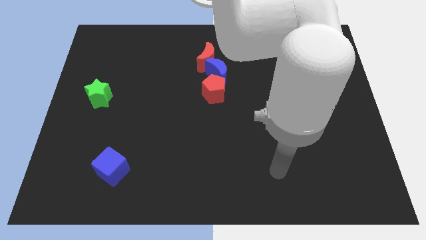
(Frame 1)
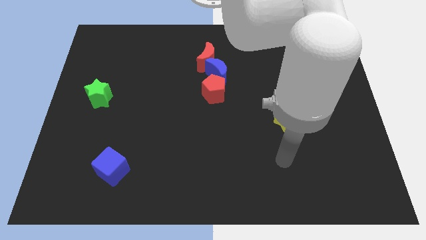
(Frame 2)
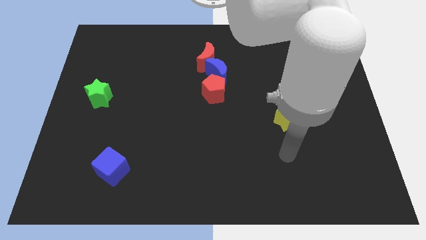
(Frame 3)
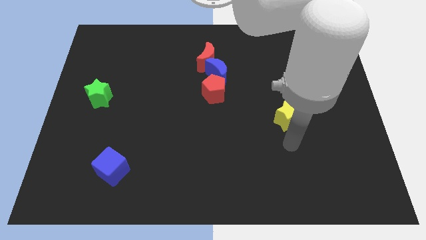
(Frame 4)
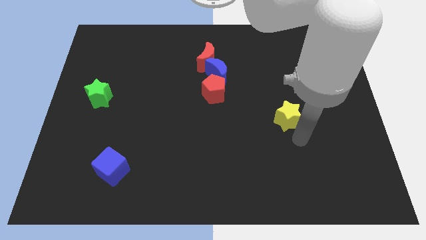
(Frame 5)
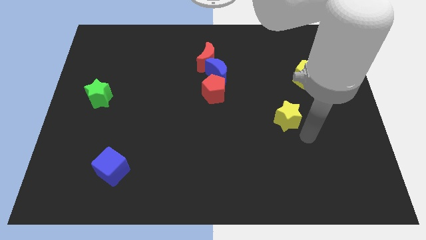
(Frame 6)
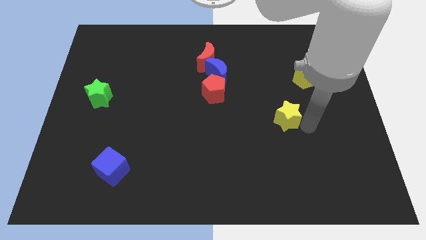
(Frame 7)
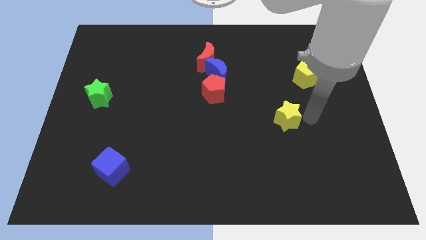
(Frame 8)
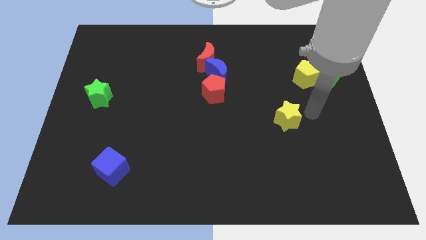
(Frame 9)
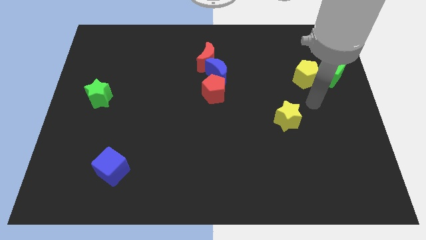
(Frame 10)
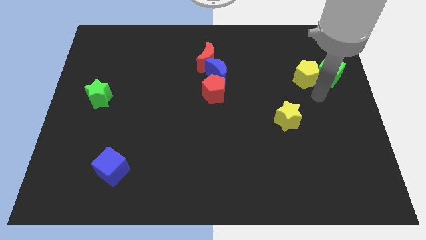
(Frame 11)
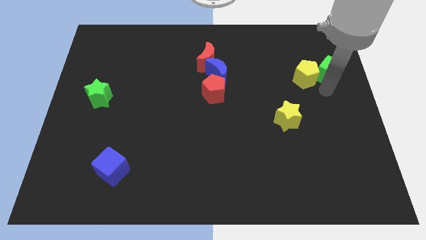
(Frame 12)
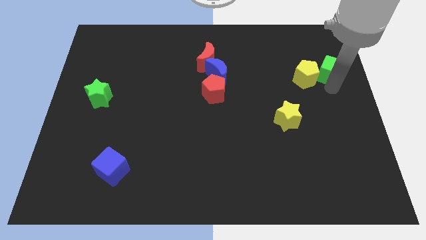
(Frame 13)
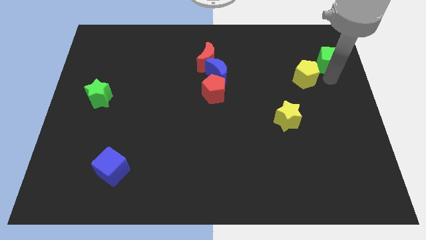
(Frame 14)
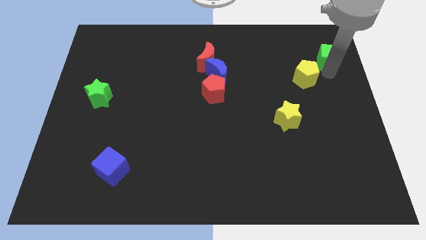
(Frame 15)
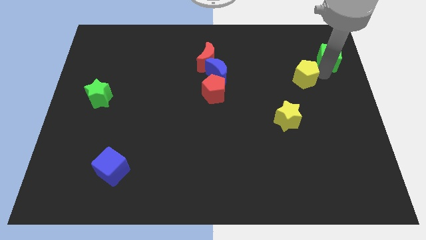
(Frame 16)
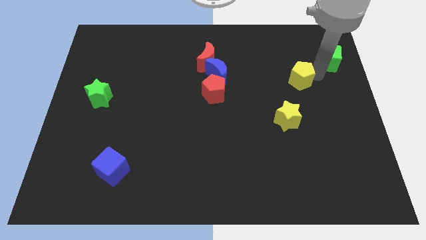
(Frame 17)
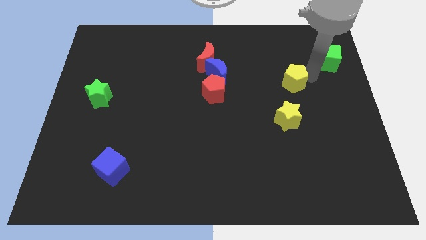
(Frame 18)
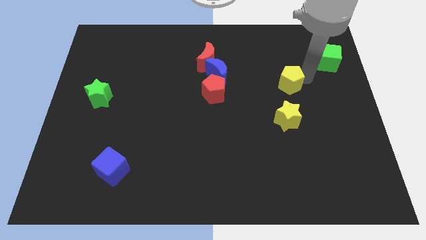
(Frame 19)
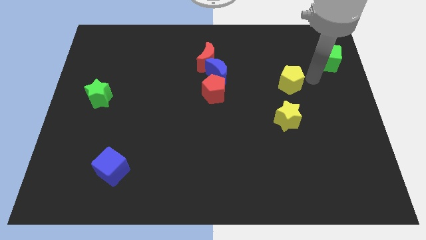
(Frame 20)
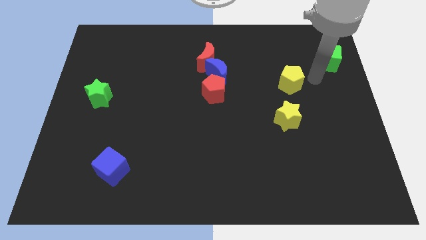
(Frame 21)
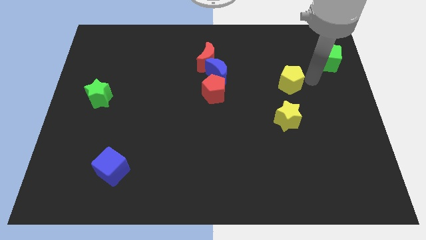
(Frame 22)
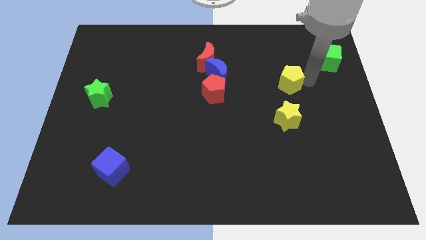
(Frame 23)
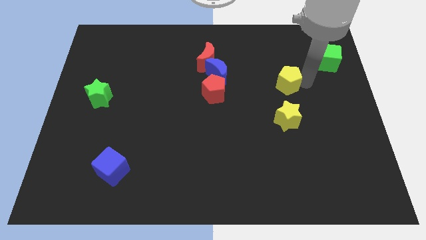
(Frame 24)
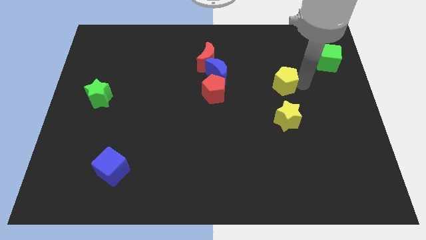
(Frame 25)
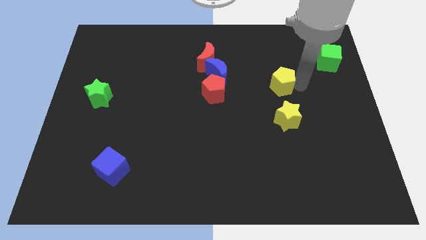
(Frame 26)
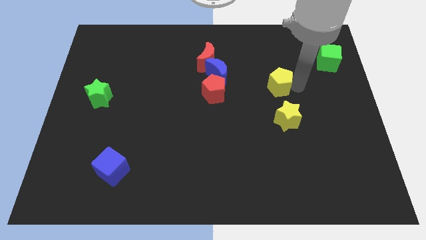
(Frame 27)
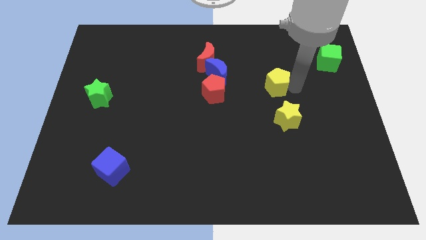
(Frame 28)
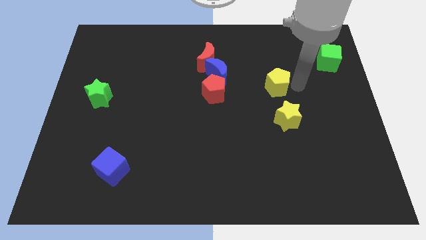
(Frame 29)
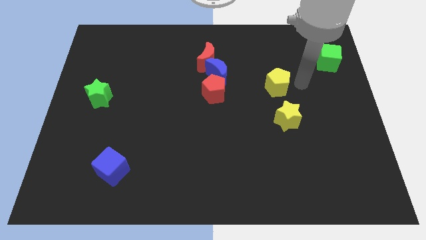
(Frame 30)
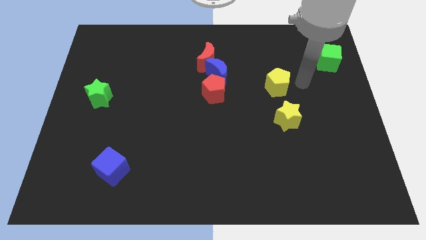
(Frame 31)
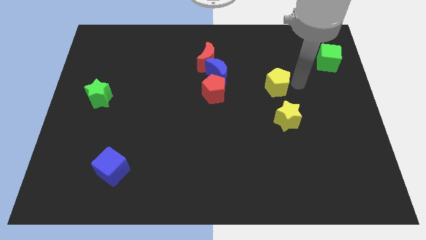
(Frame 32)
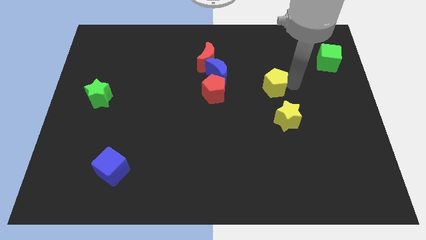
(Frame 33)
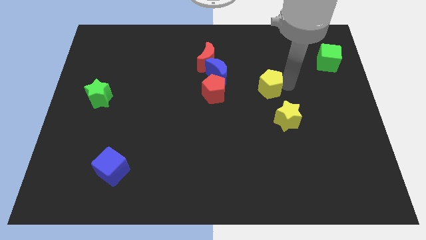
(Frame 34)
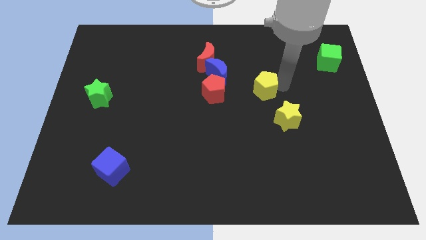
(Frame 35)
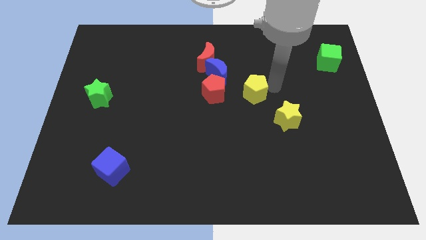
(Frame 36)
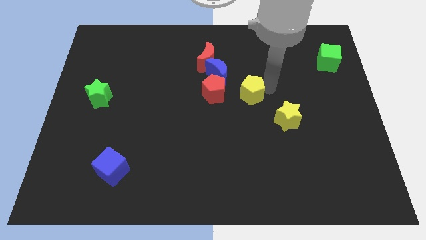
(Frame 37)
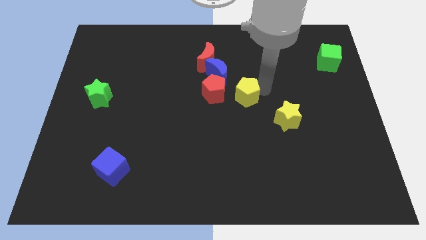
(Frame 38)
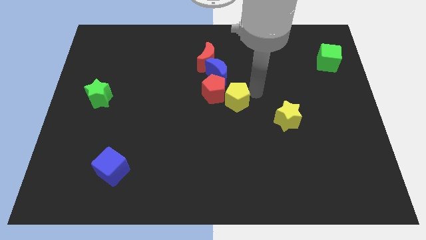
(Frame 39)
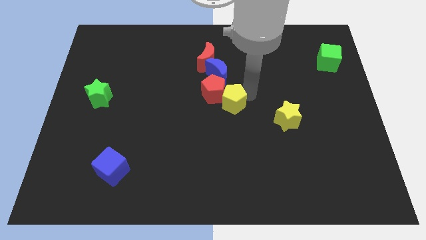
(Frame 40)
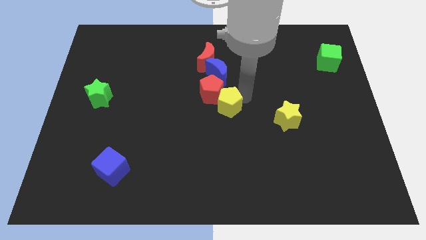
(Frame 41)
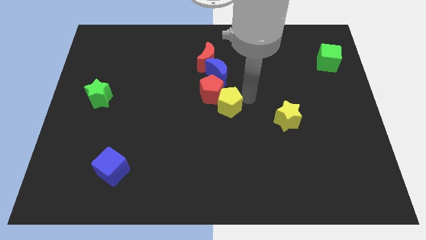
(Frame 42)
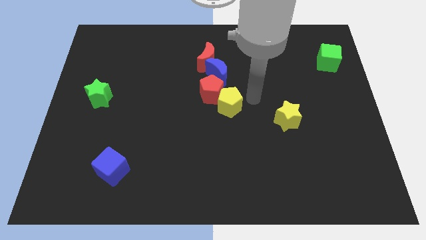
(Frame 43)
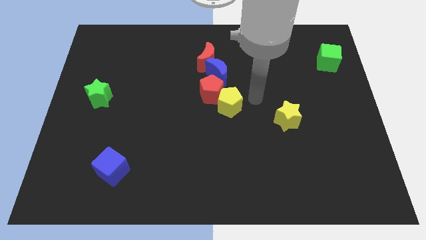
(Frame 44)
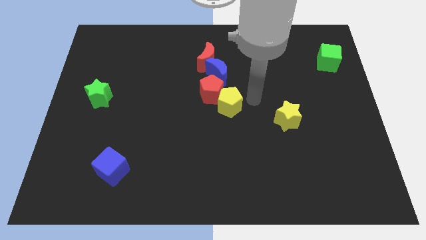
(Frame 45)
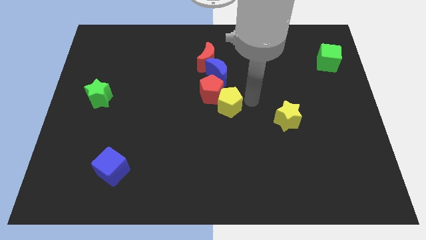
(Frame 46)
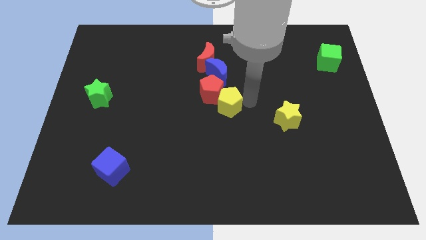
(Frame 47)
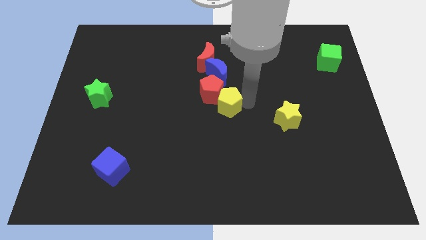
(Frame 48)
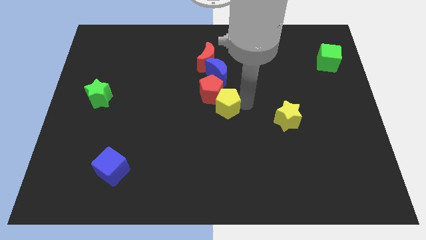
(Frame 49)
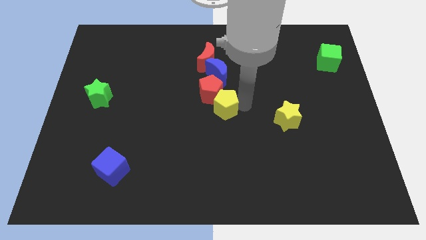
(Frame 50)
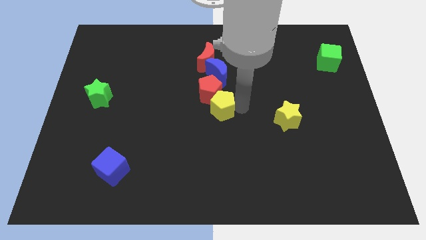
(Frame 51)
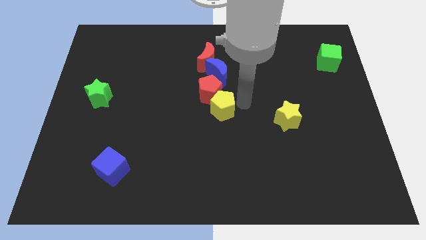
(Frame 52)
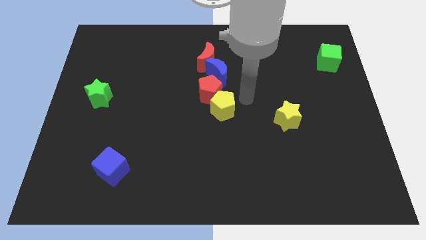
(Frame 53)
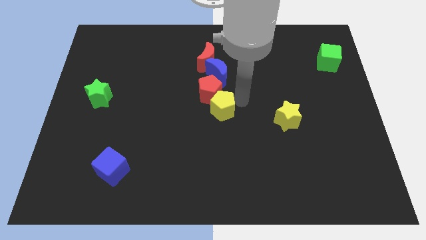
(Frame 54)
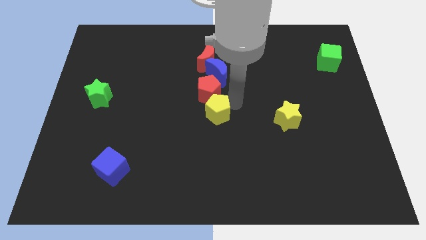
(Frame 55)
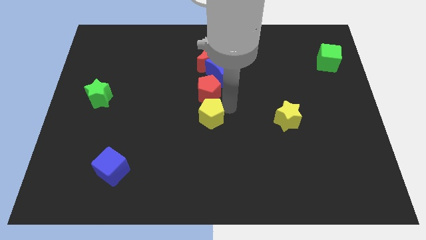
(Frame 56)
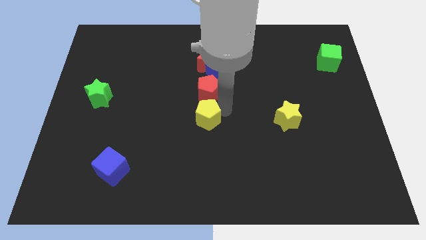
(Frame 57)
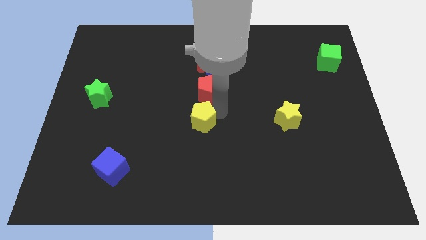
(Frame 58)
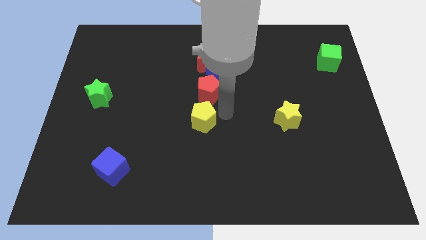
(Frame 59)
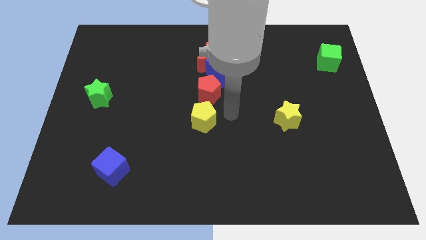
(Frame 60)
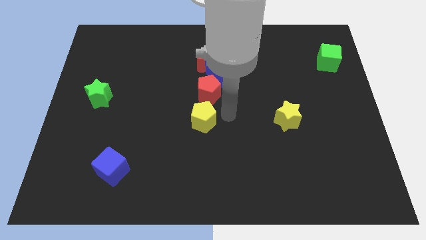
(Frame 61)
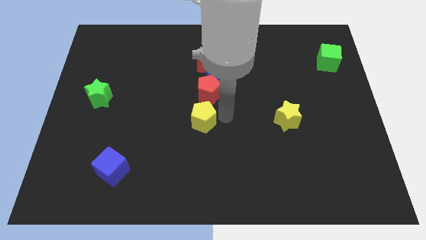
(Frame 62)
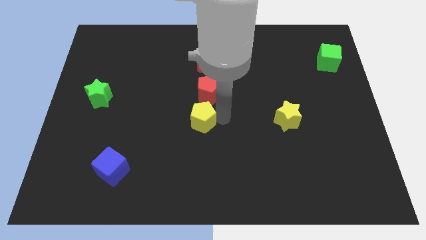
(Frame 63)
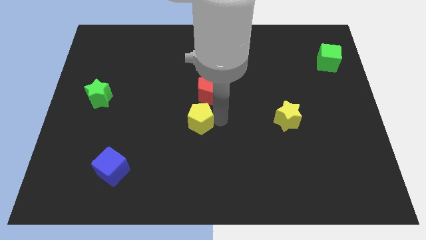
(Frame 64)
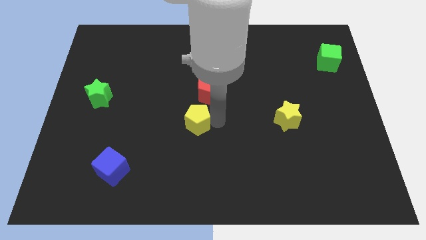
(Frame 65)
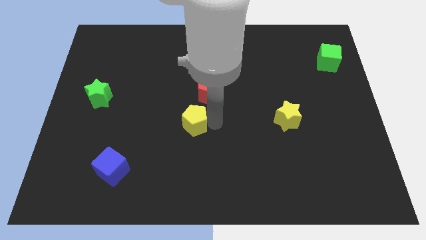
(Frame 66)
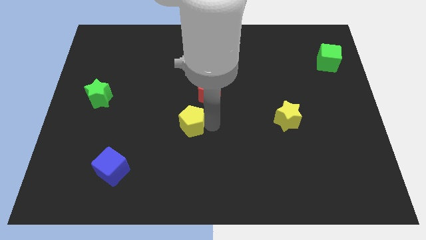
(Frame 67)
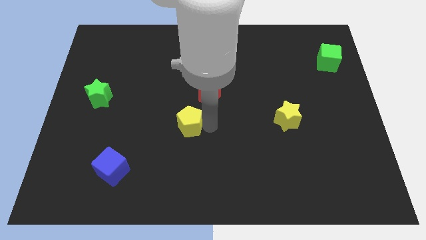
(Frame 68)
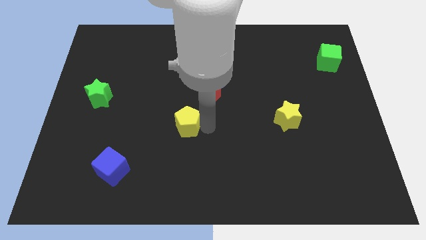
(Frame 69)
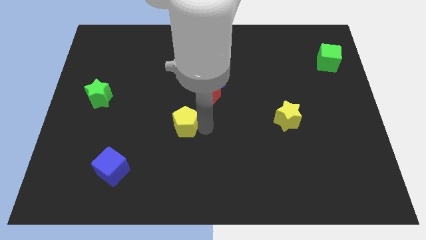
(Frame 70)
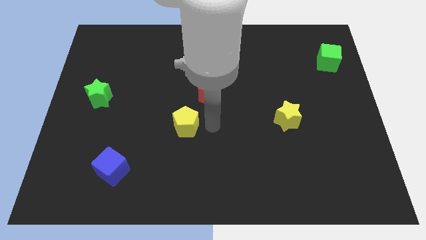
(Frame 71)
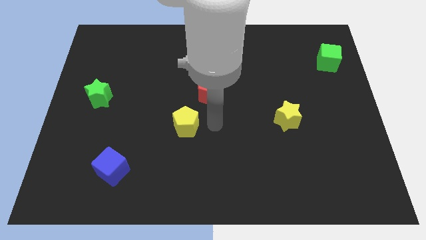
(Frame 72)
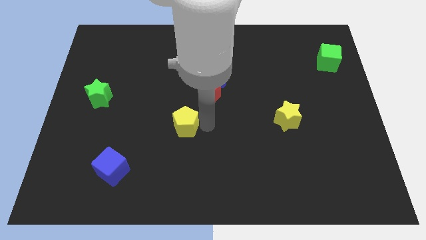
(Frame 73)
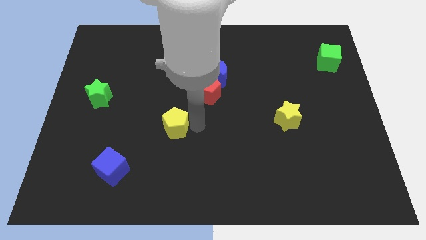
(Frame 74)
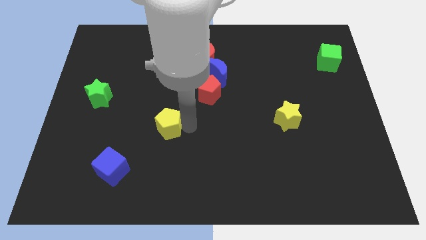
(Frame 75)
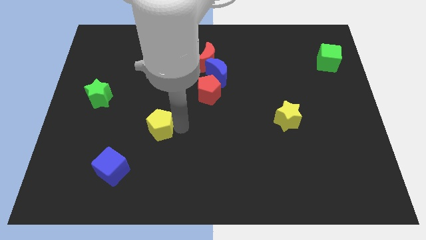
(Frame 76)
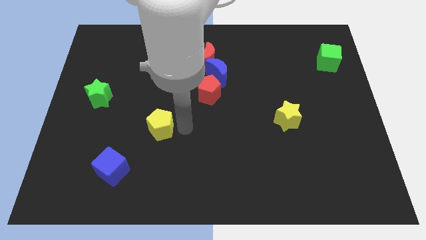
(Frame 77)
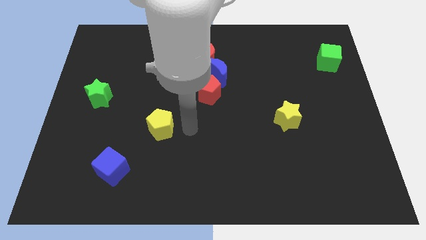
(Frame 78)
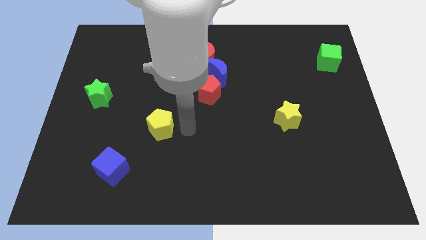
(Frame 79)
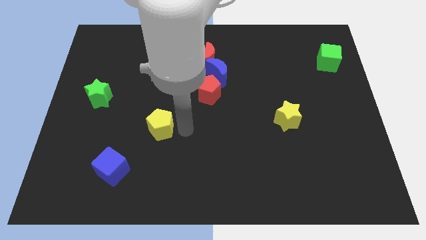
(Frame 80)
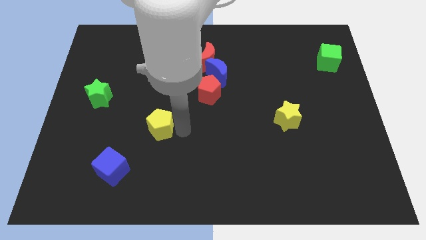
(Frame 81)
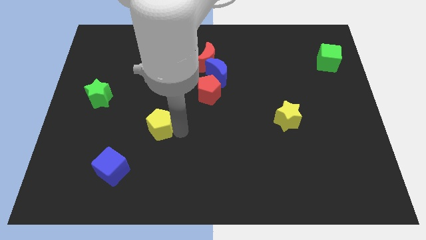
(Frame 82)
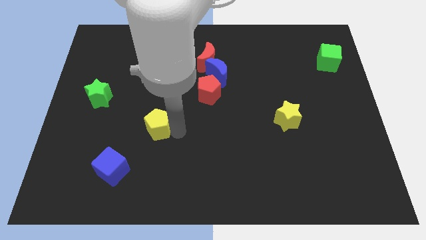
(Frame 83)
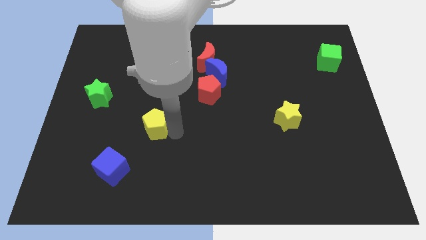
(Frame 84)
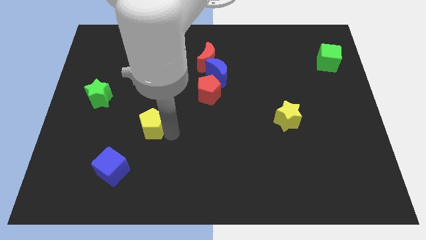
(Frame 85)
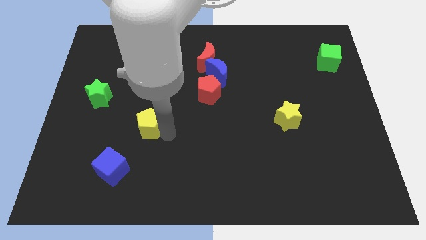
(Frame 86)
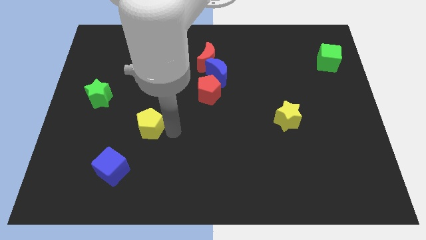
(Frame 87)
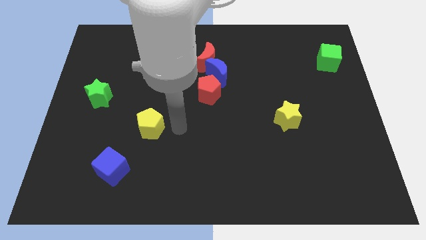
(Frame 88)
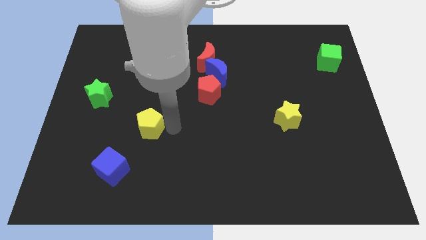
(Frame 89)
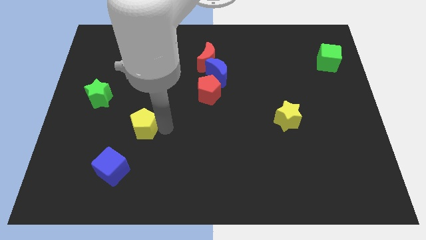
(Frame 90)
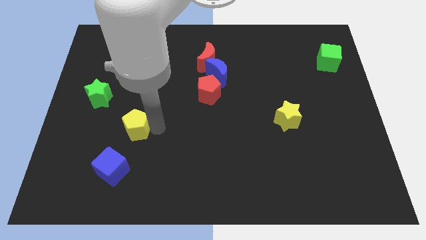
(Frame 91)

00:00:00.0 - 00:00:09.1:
slide the yellow pentagon to the top side of the blue cube
